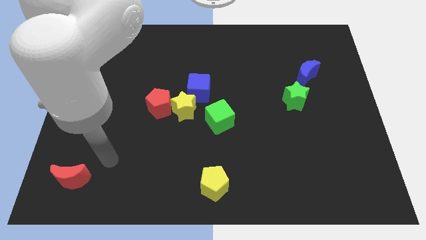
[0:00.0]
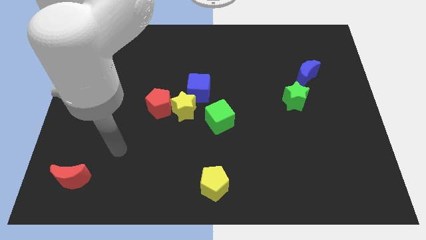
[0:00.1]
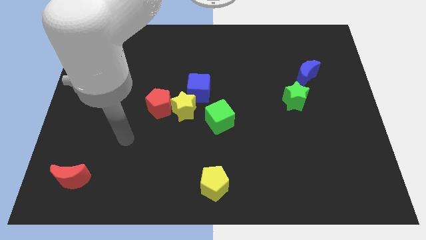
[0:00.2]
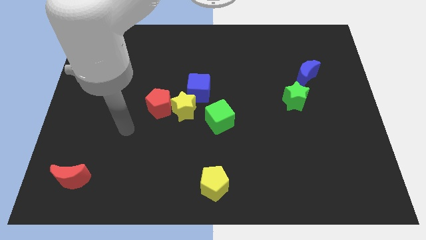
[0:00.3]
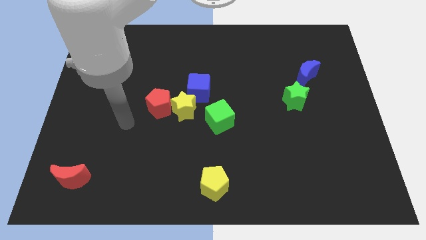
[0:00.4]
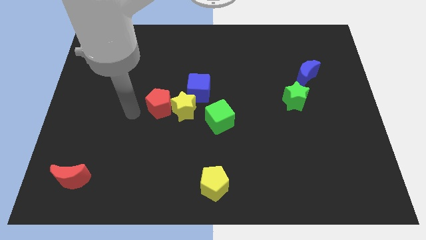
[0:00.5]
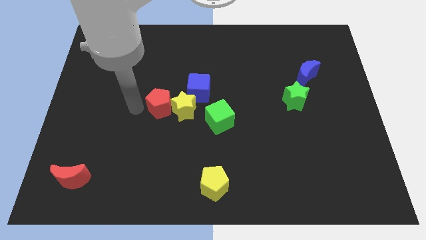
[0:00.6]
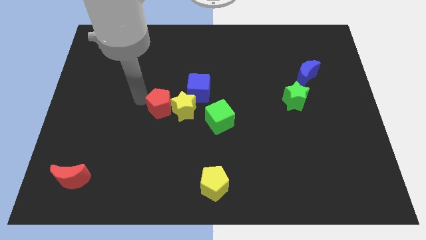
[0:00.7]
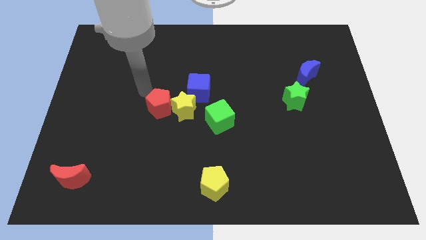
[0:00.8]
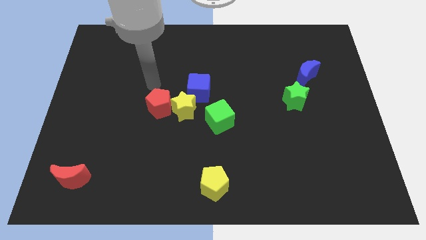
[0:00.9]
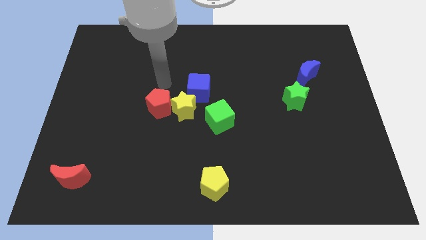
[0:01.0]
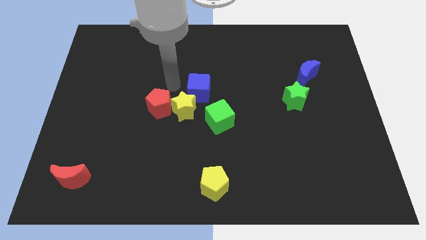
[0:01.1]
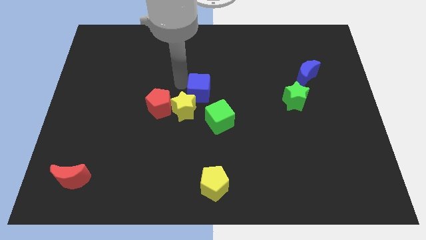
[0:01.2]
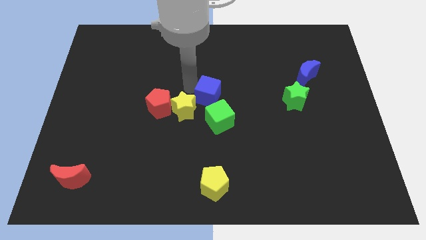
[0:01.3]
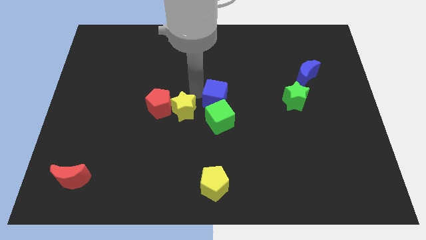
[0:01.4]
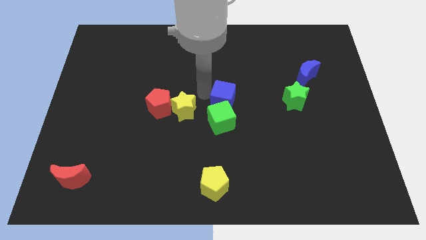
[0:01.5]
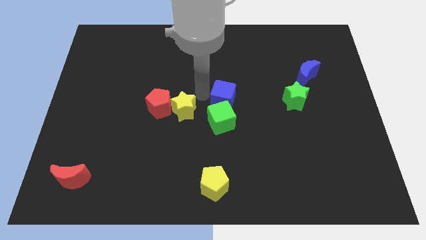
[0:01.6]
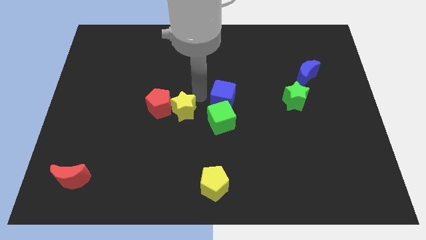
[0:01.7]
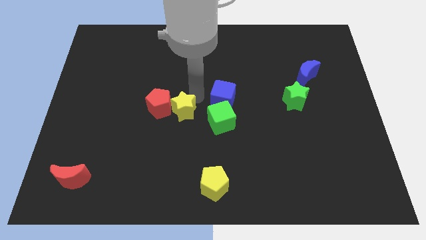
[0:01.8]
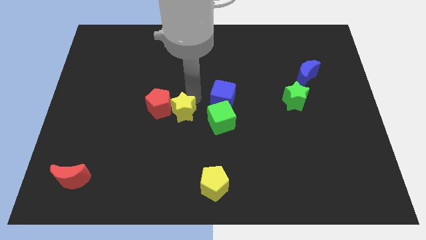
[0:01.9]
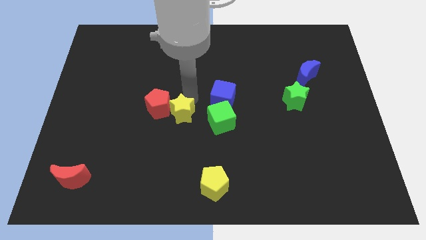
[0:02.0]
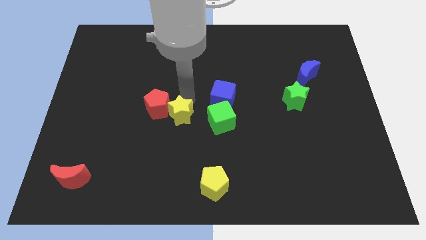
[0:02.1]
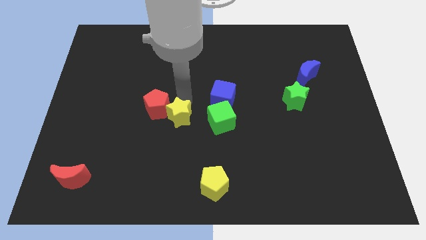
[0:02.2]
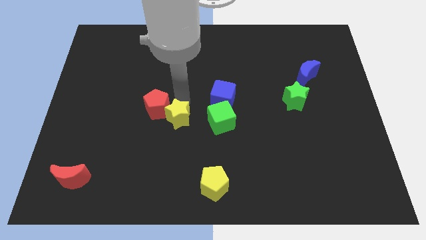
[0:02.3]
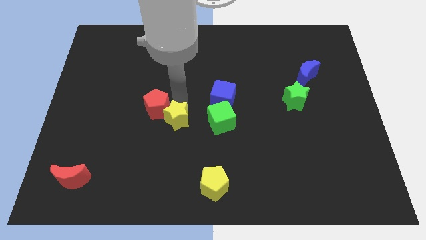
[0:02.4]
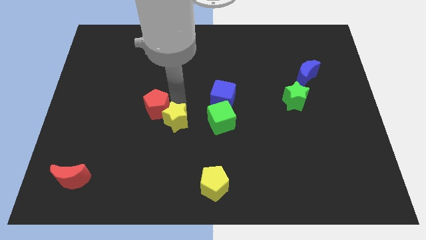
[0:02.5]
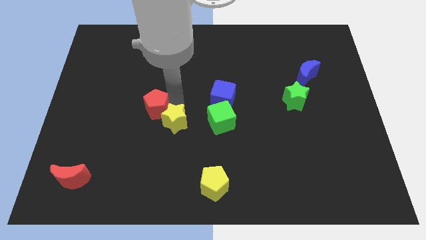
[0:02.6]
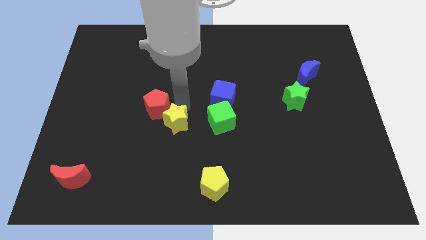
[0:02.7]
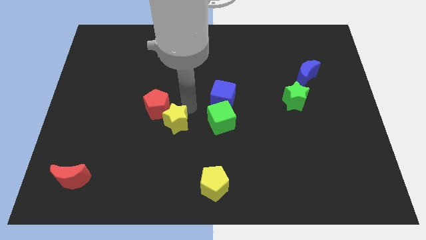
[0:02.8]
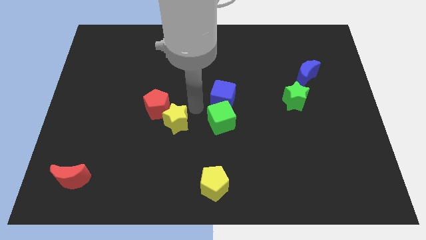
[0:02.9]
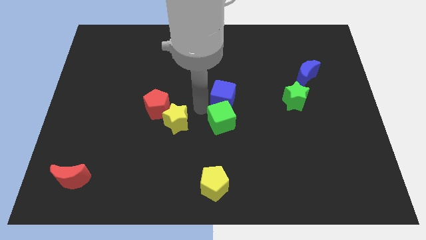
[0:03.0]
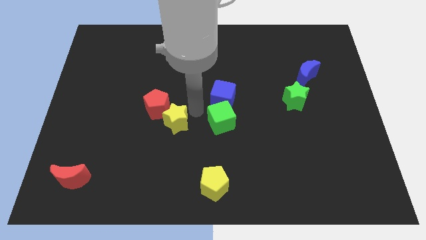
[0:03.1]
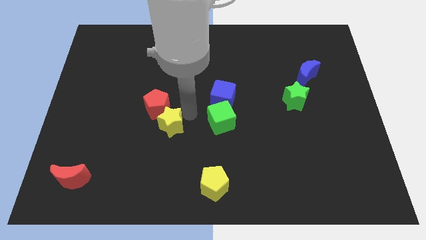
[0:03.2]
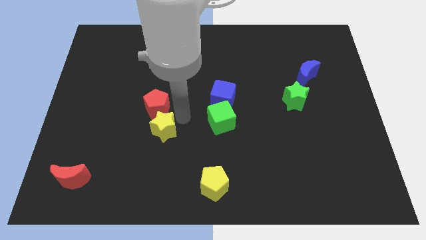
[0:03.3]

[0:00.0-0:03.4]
separate the yellow star from the clump

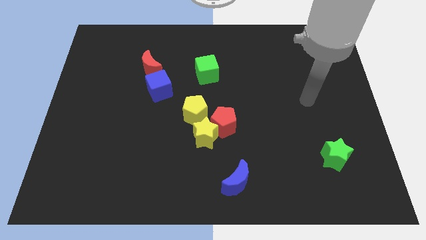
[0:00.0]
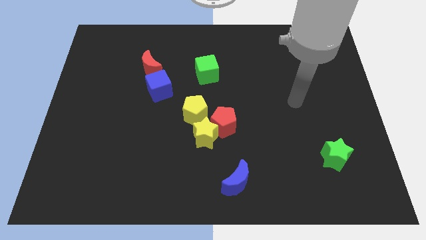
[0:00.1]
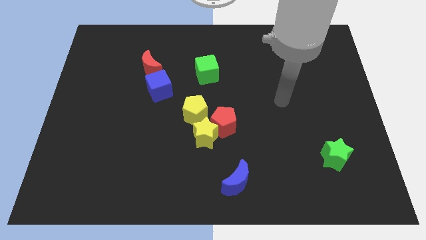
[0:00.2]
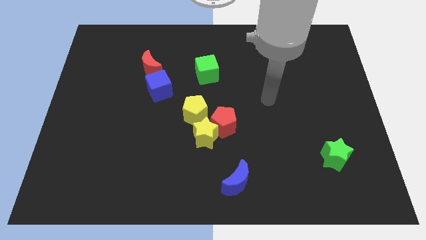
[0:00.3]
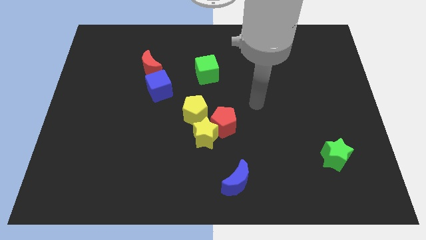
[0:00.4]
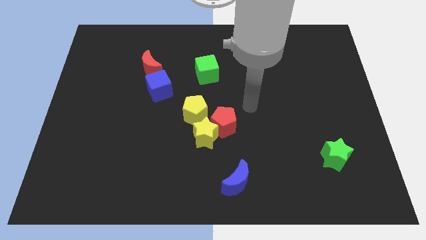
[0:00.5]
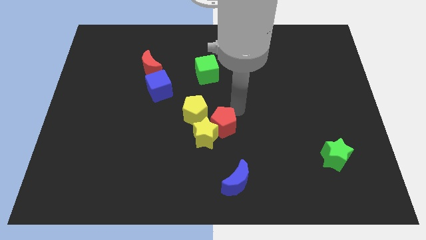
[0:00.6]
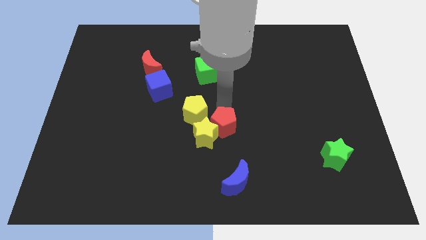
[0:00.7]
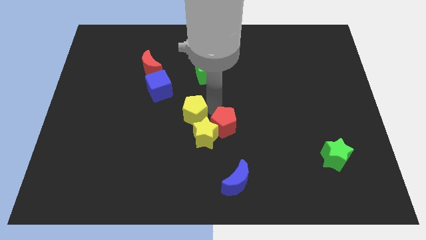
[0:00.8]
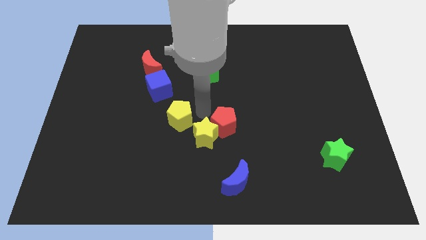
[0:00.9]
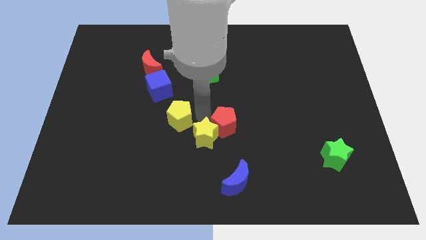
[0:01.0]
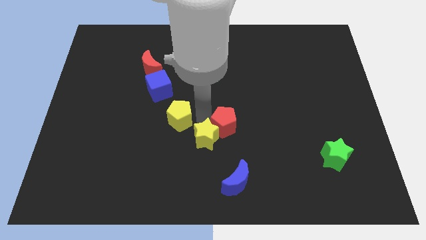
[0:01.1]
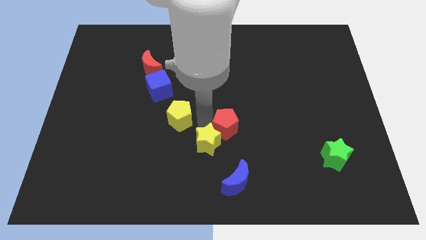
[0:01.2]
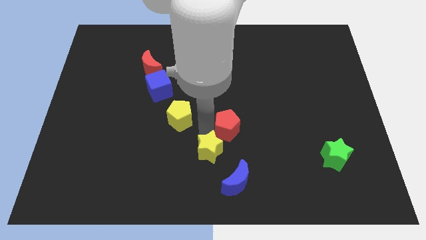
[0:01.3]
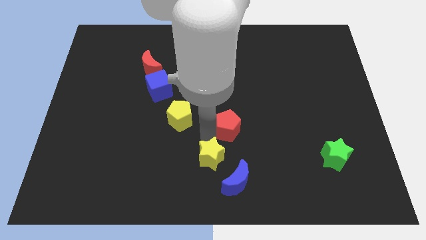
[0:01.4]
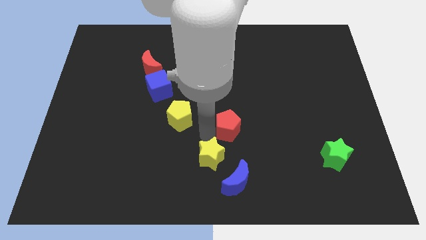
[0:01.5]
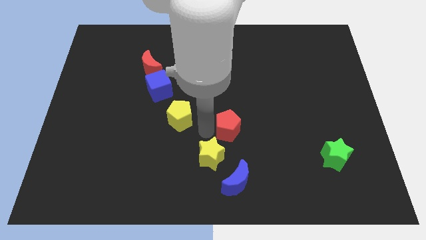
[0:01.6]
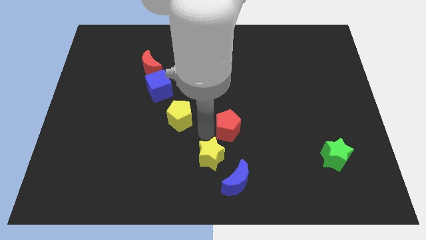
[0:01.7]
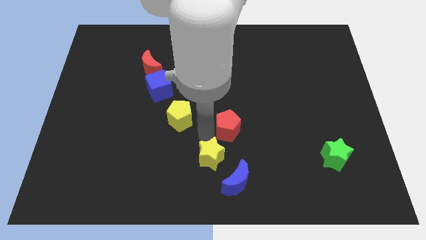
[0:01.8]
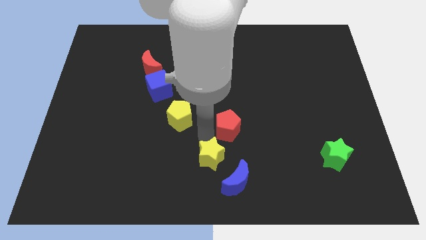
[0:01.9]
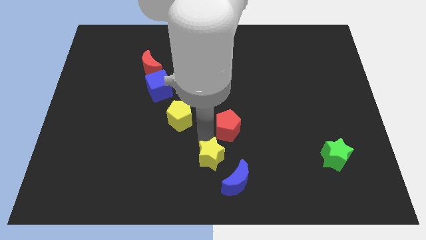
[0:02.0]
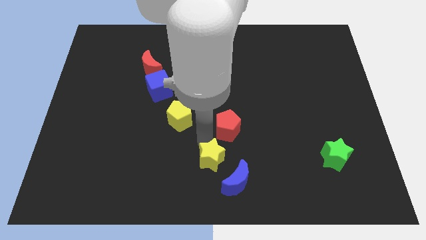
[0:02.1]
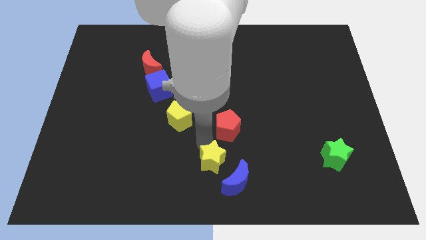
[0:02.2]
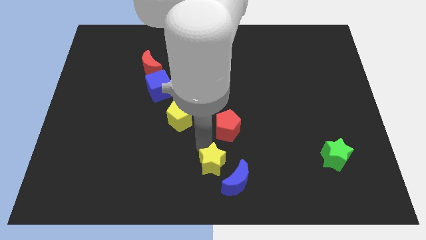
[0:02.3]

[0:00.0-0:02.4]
separate the yellow star from the red pentagon and yellow pentagon

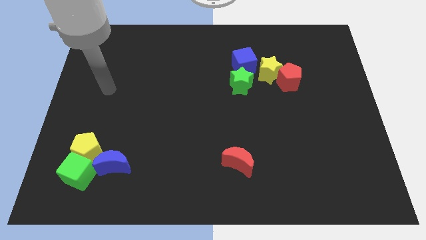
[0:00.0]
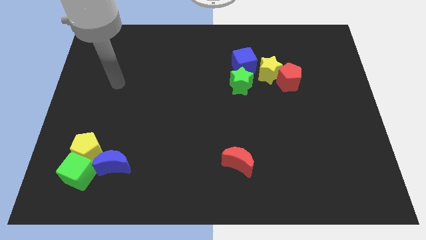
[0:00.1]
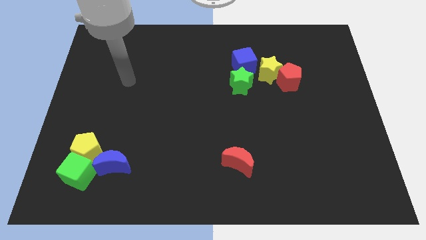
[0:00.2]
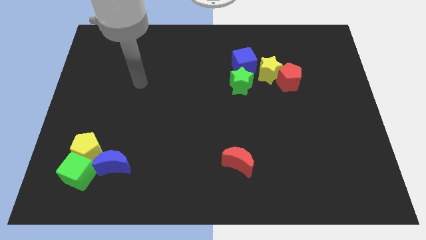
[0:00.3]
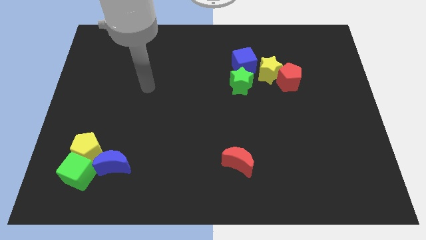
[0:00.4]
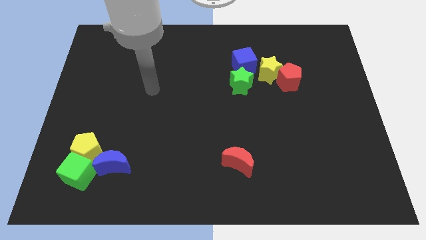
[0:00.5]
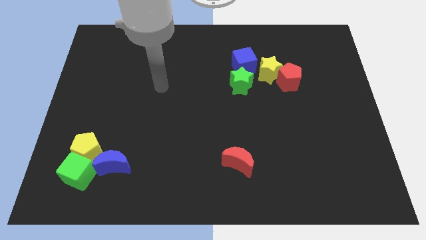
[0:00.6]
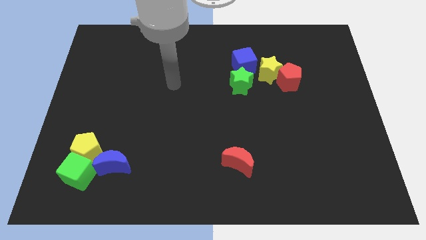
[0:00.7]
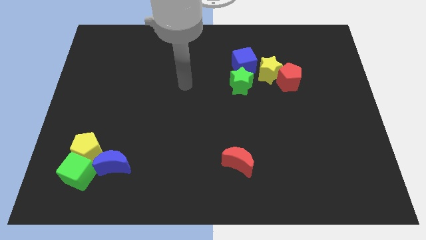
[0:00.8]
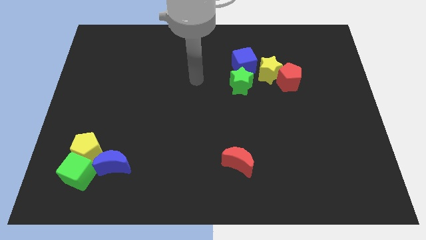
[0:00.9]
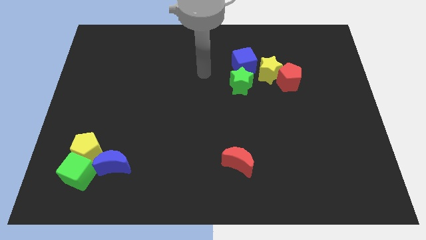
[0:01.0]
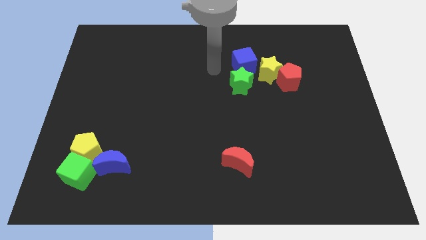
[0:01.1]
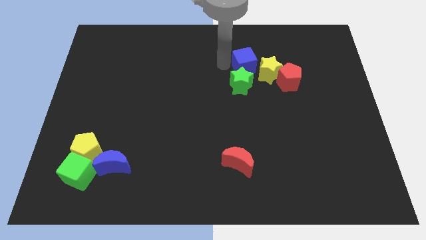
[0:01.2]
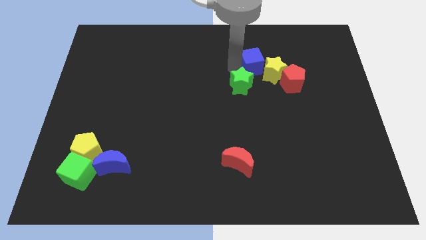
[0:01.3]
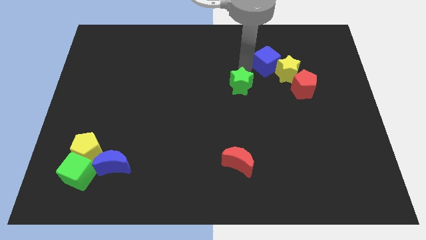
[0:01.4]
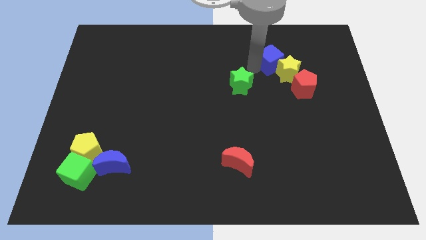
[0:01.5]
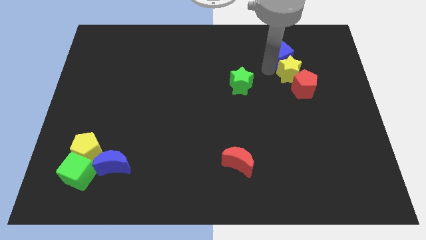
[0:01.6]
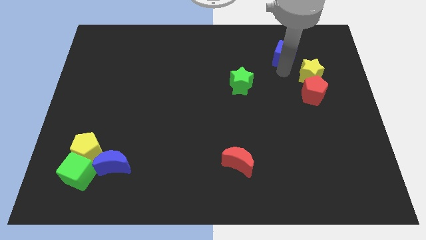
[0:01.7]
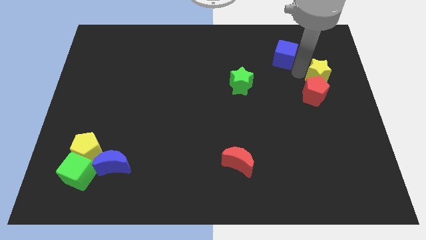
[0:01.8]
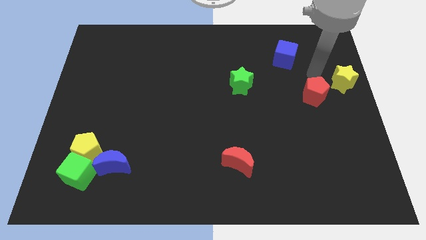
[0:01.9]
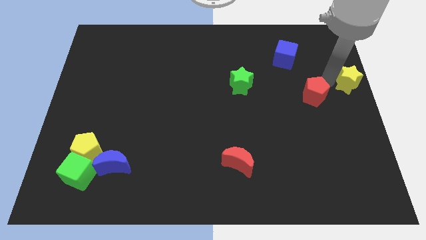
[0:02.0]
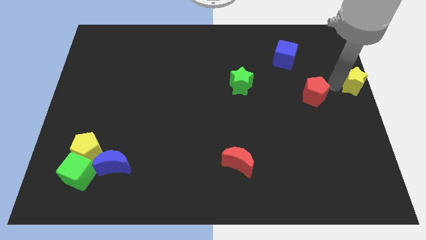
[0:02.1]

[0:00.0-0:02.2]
pull the red pentagon apart from the yellow star

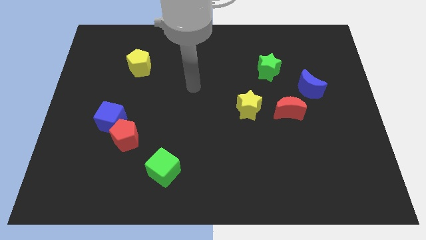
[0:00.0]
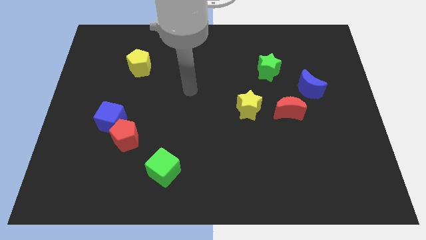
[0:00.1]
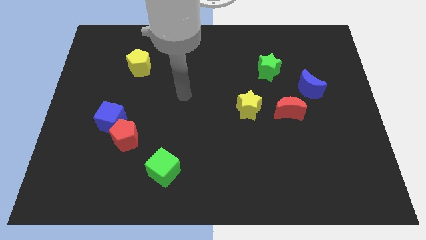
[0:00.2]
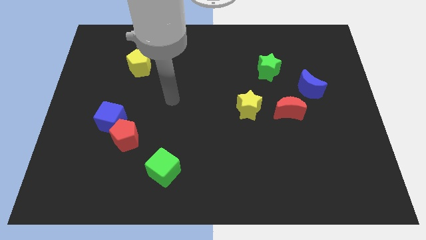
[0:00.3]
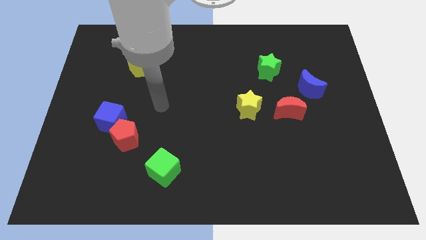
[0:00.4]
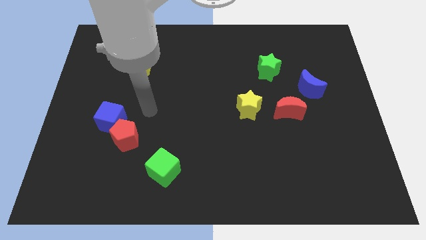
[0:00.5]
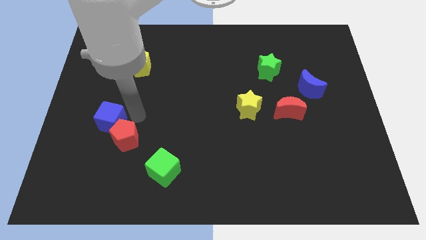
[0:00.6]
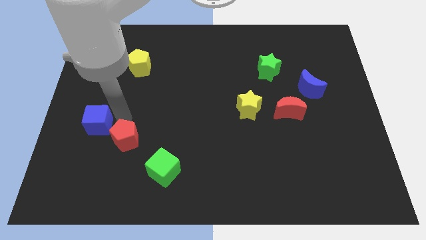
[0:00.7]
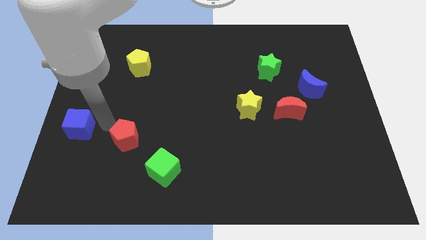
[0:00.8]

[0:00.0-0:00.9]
pull the red pentagon apart from the blue cube

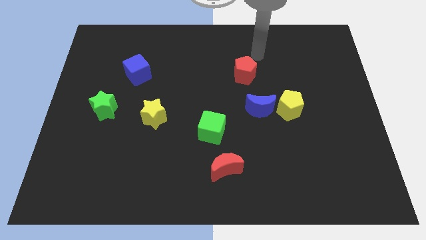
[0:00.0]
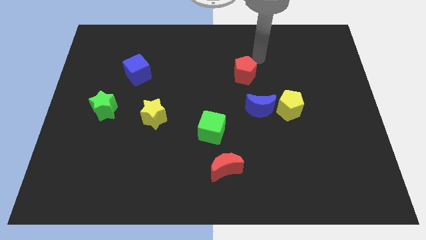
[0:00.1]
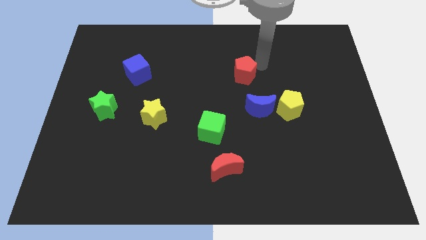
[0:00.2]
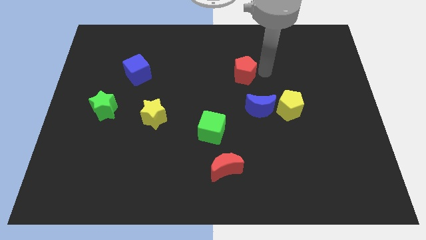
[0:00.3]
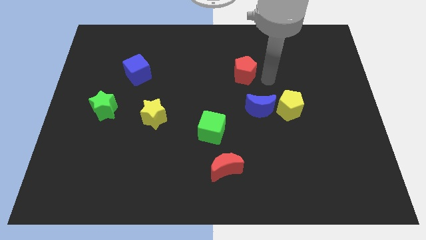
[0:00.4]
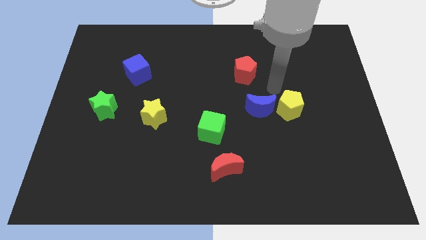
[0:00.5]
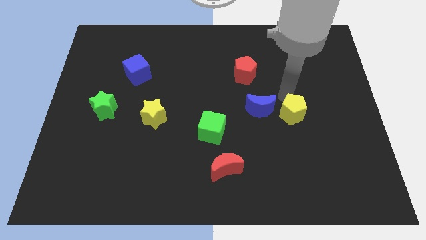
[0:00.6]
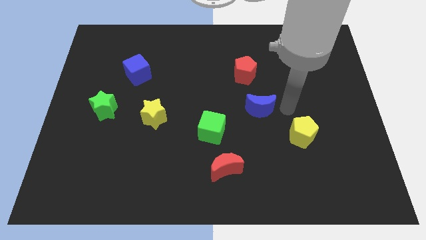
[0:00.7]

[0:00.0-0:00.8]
pull the blue moon apart from the yellow pentagon
